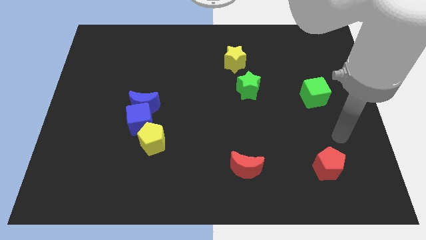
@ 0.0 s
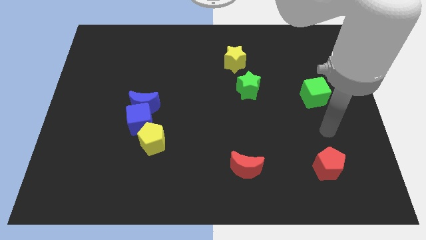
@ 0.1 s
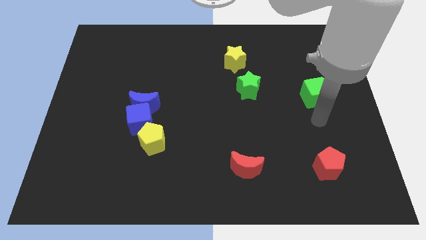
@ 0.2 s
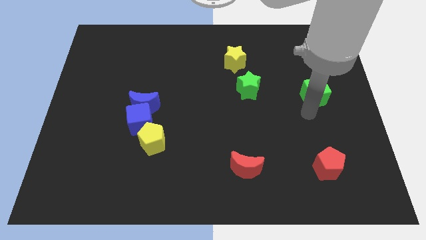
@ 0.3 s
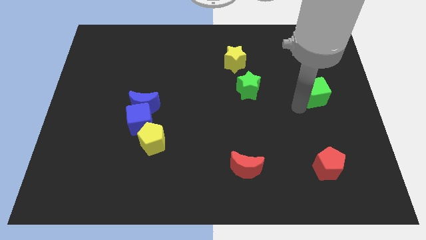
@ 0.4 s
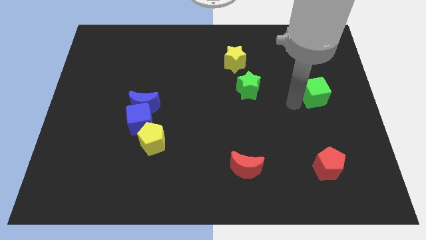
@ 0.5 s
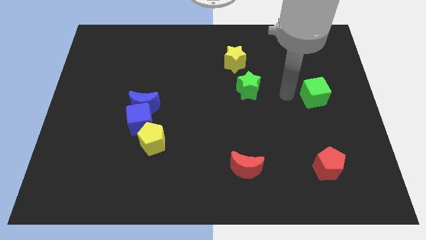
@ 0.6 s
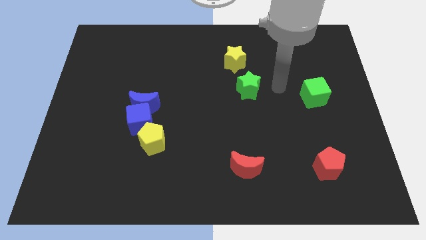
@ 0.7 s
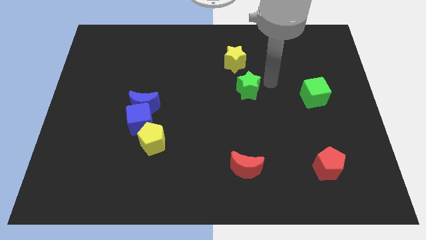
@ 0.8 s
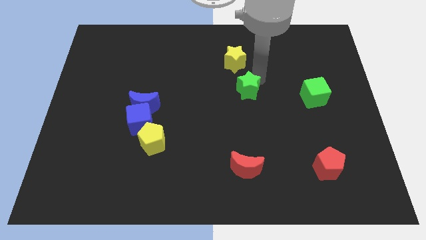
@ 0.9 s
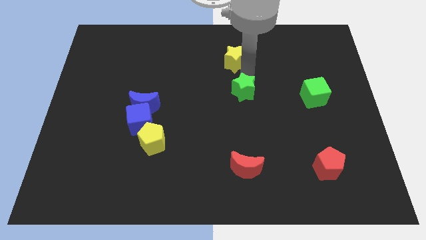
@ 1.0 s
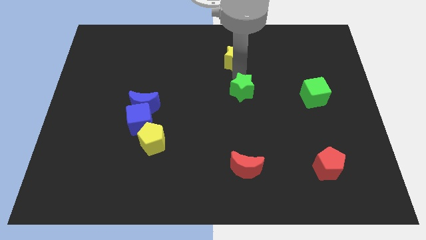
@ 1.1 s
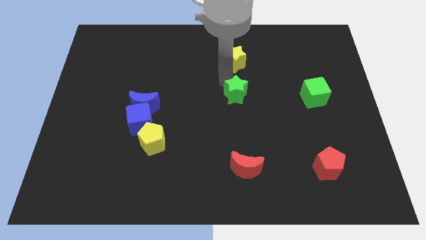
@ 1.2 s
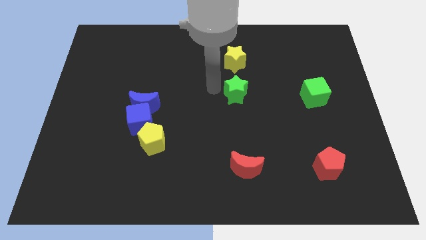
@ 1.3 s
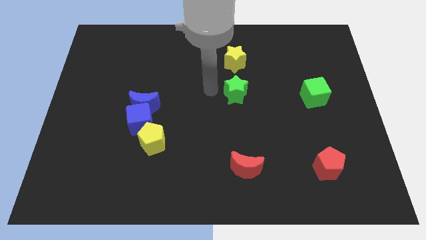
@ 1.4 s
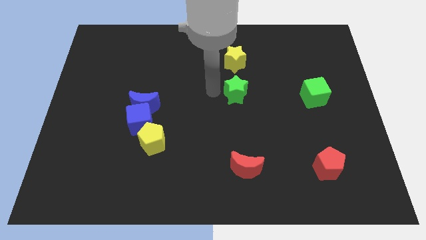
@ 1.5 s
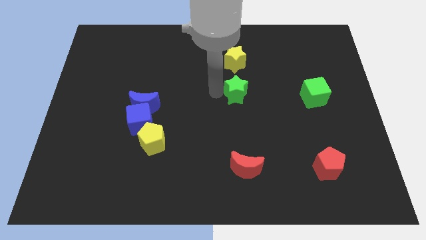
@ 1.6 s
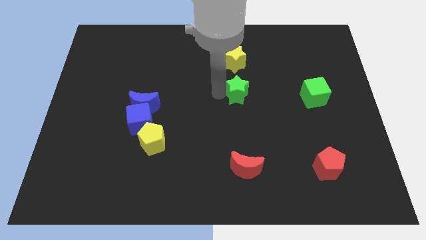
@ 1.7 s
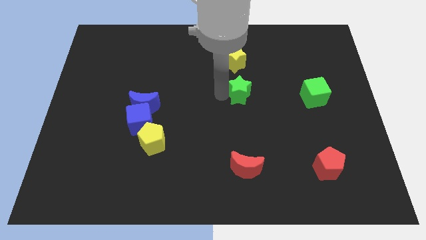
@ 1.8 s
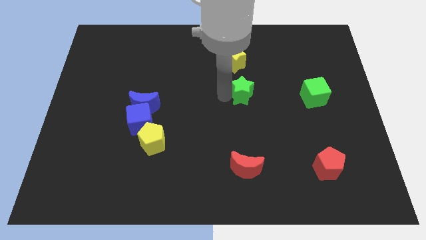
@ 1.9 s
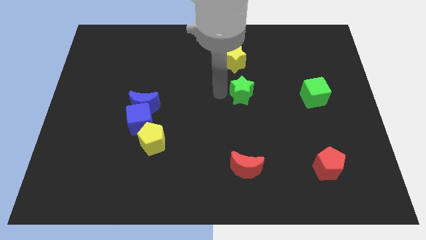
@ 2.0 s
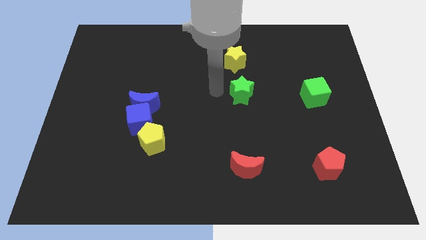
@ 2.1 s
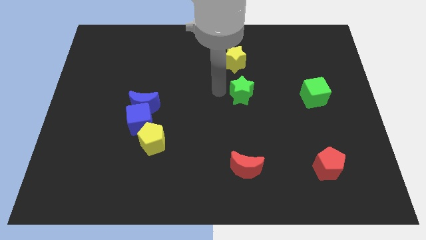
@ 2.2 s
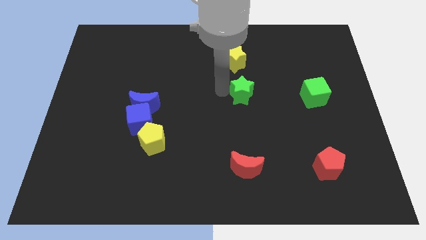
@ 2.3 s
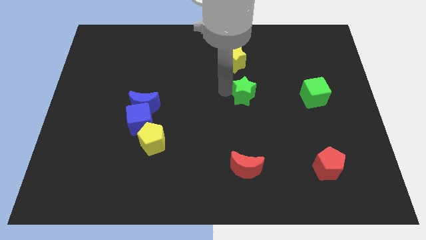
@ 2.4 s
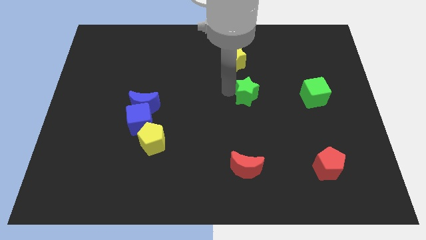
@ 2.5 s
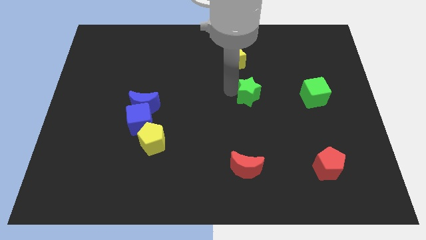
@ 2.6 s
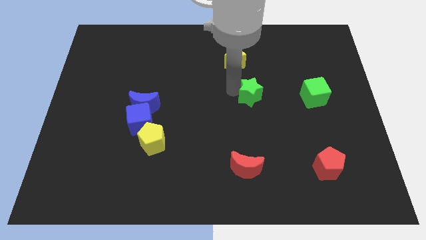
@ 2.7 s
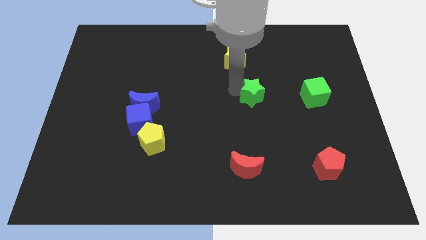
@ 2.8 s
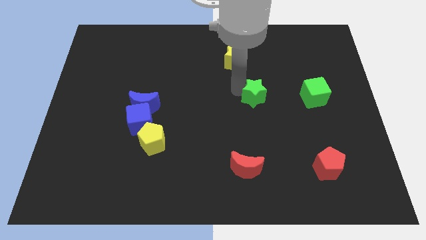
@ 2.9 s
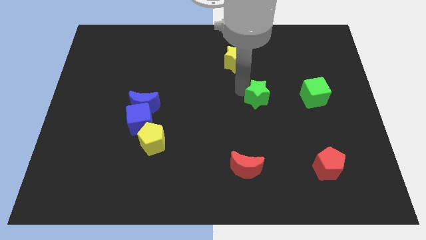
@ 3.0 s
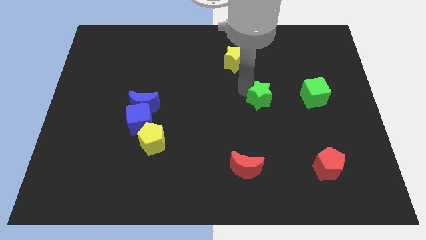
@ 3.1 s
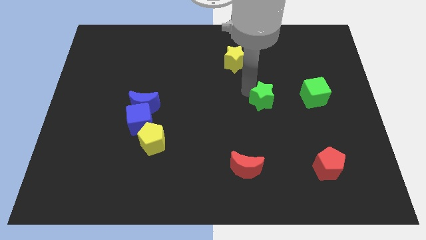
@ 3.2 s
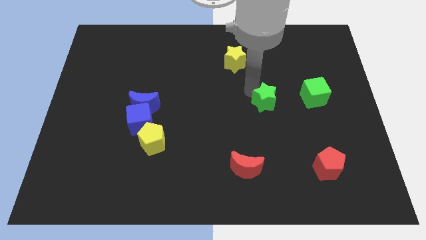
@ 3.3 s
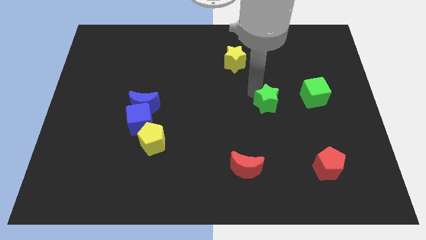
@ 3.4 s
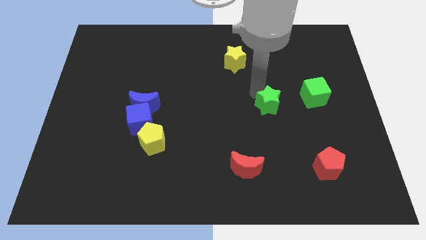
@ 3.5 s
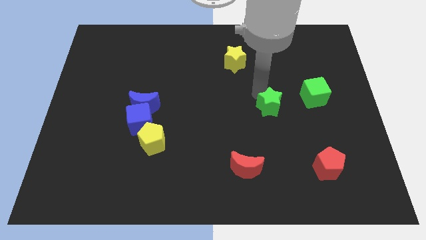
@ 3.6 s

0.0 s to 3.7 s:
slightly slide the green star downwards and to the right diagonally

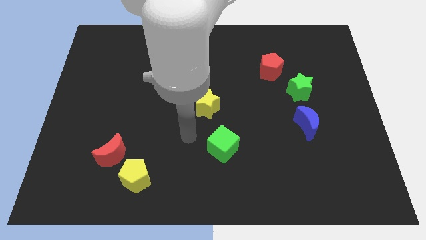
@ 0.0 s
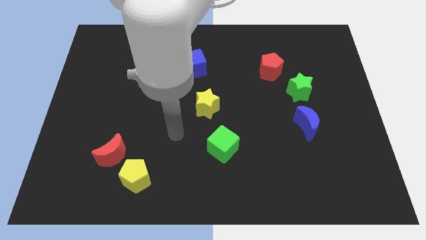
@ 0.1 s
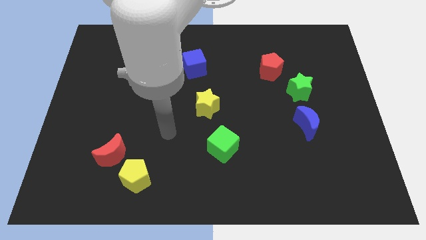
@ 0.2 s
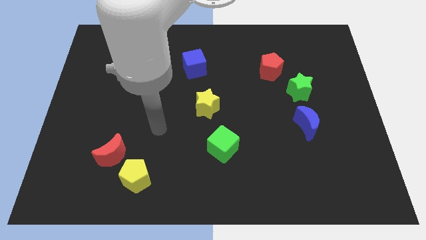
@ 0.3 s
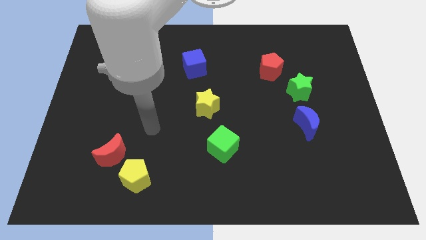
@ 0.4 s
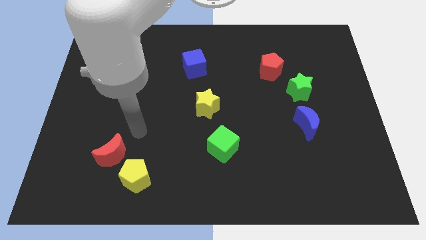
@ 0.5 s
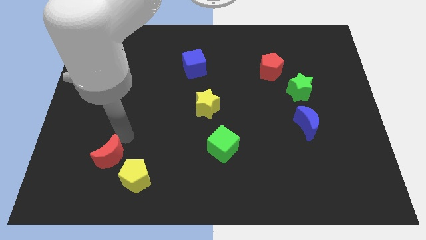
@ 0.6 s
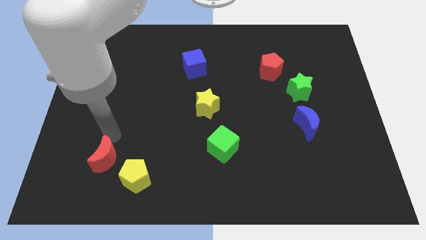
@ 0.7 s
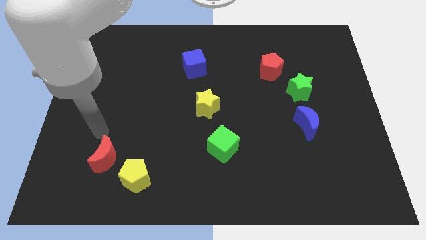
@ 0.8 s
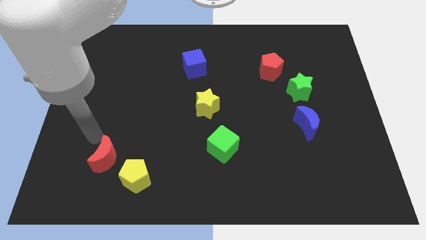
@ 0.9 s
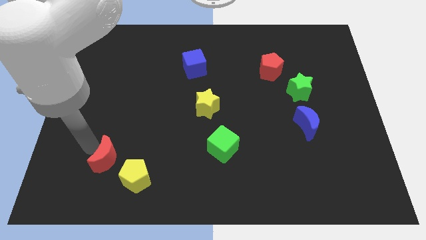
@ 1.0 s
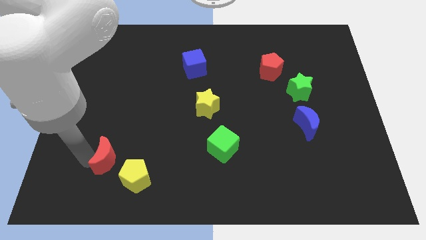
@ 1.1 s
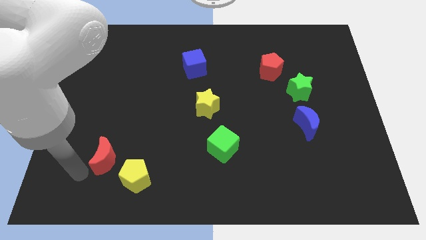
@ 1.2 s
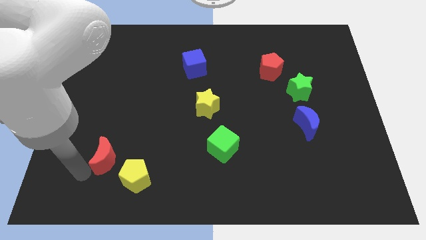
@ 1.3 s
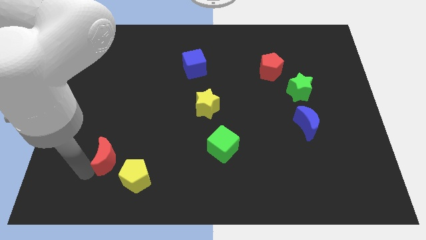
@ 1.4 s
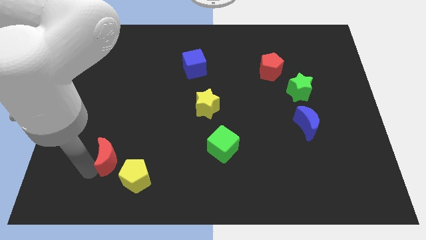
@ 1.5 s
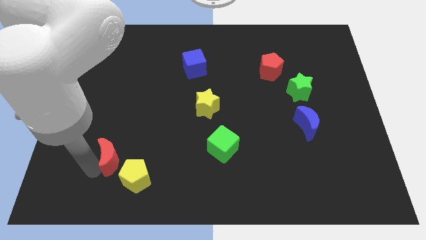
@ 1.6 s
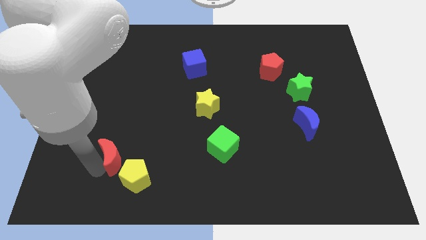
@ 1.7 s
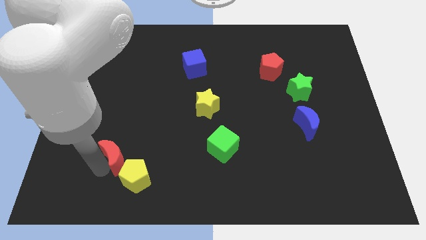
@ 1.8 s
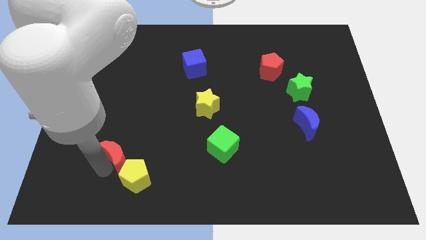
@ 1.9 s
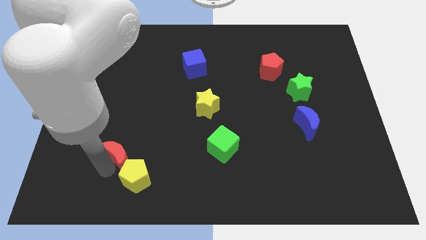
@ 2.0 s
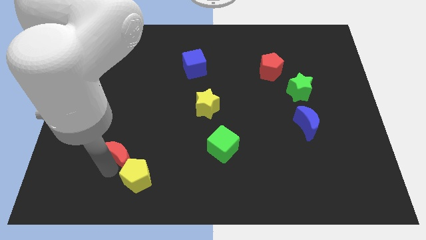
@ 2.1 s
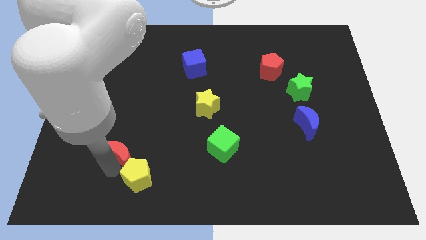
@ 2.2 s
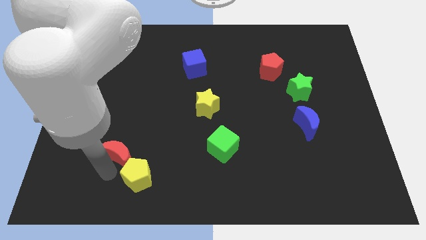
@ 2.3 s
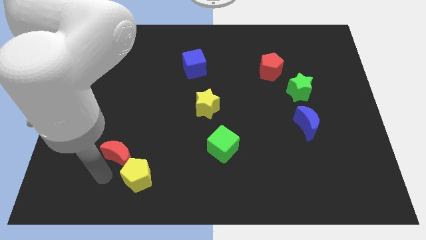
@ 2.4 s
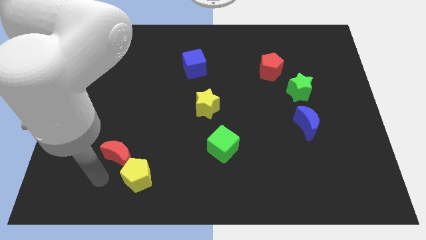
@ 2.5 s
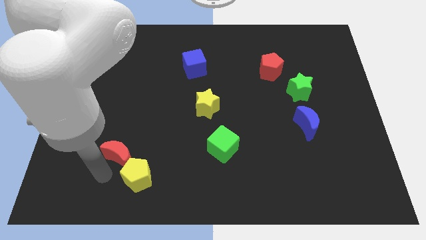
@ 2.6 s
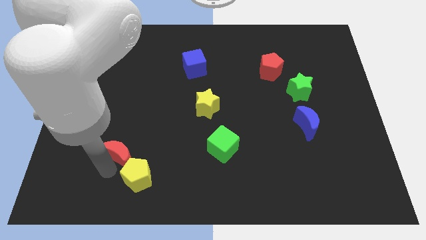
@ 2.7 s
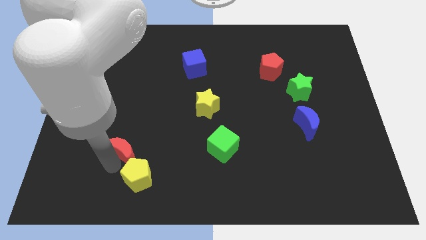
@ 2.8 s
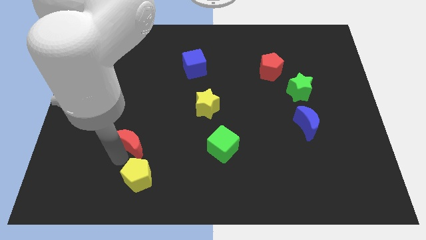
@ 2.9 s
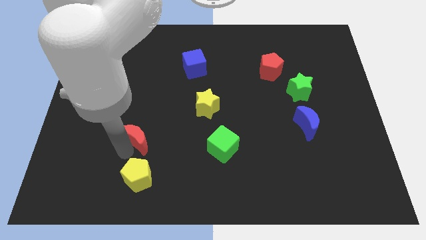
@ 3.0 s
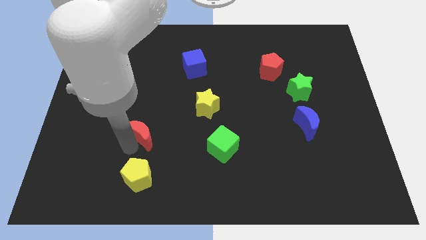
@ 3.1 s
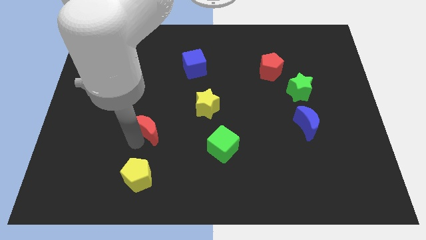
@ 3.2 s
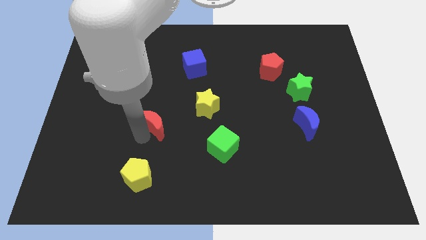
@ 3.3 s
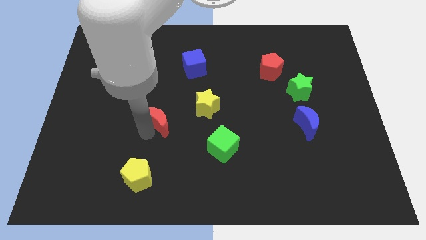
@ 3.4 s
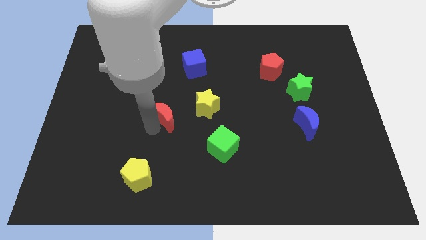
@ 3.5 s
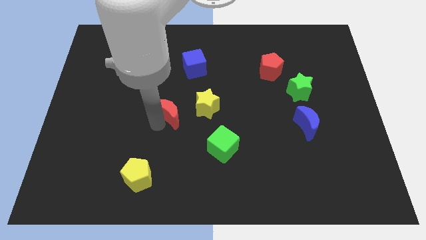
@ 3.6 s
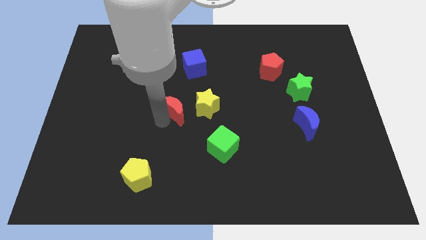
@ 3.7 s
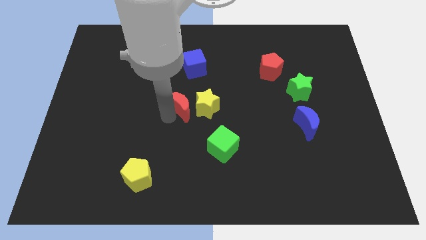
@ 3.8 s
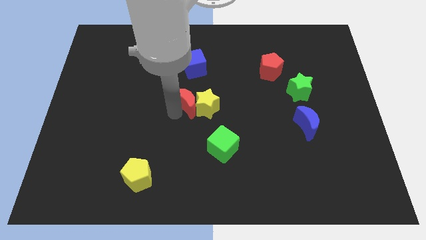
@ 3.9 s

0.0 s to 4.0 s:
move the red moon upwards and then to the right

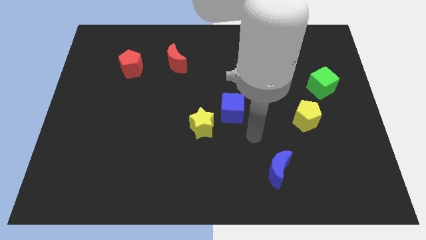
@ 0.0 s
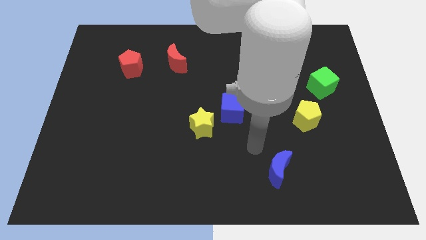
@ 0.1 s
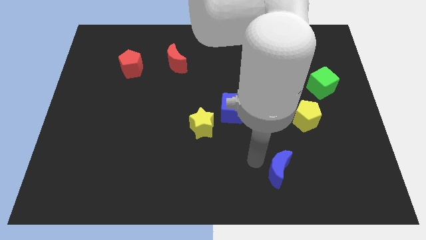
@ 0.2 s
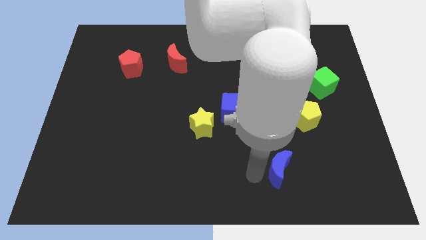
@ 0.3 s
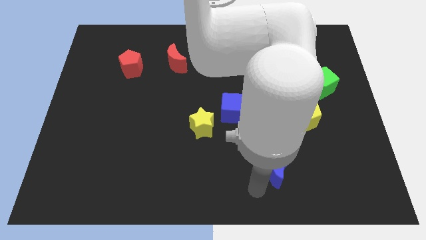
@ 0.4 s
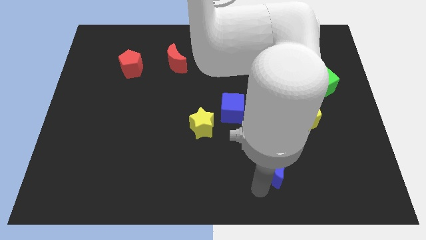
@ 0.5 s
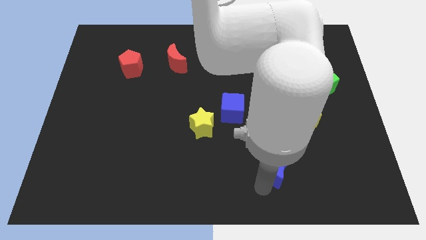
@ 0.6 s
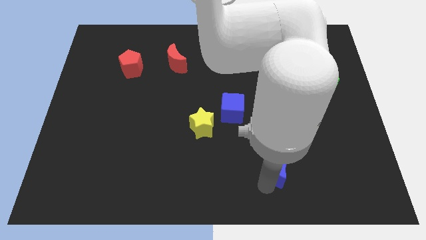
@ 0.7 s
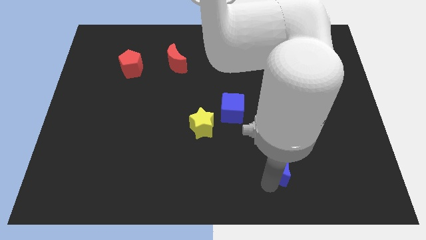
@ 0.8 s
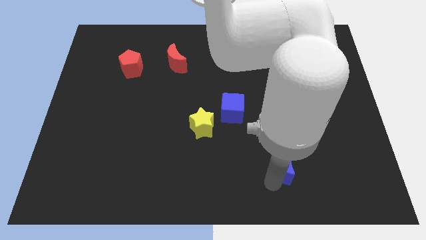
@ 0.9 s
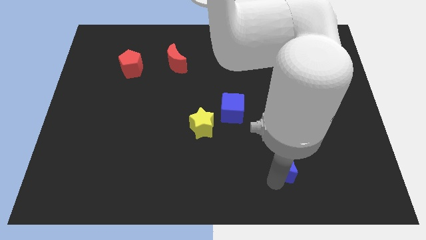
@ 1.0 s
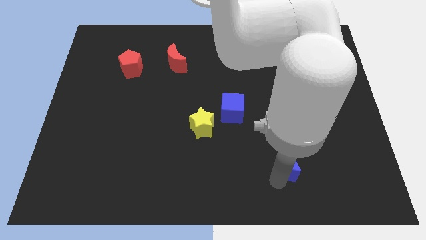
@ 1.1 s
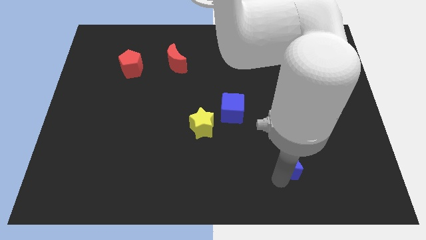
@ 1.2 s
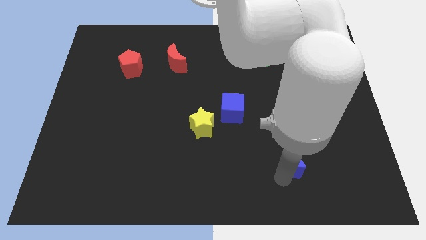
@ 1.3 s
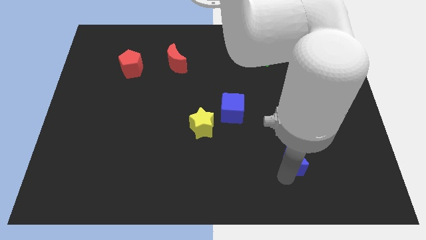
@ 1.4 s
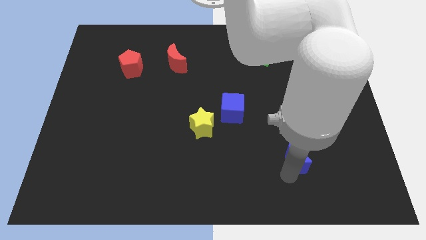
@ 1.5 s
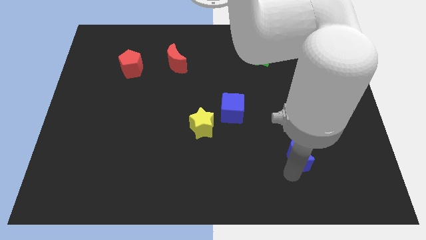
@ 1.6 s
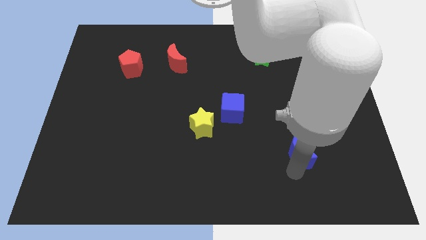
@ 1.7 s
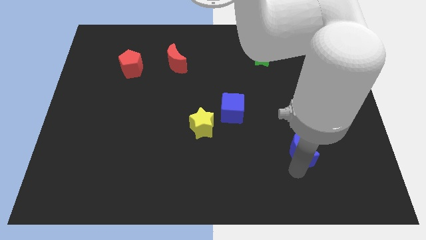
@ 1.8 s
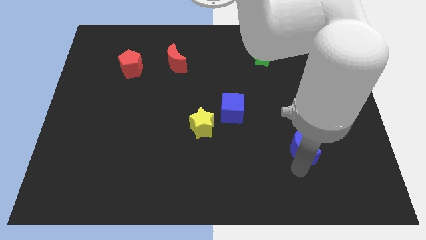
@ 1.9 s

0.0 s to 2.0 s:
slide the blue moon a little diagonally up and to the right
